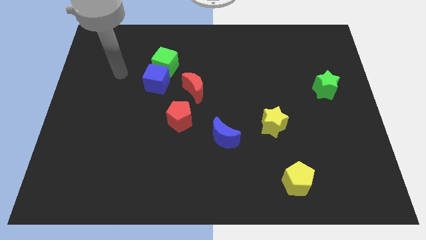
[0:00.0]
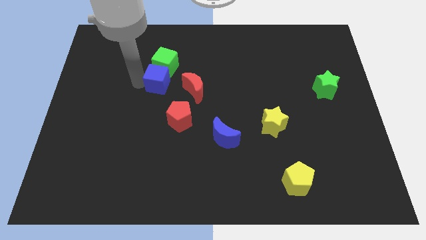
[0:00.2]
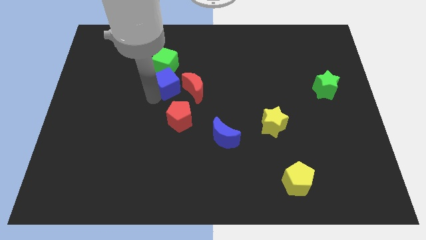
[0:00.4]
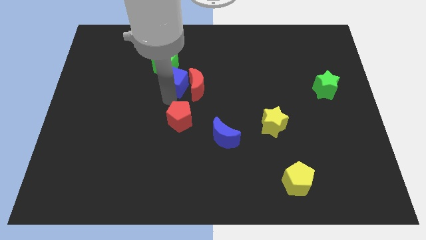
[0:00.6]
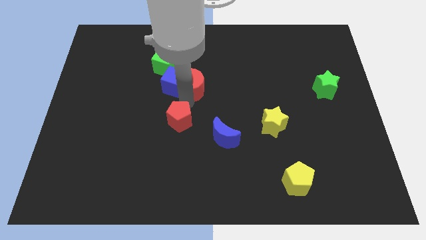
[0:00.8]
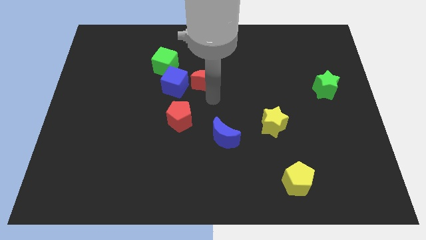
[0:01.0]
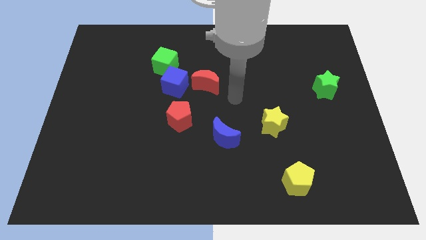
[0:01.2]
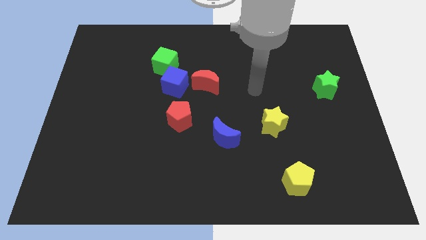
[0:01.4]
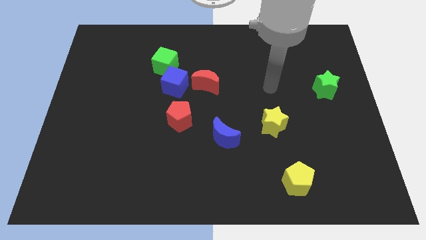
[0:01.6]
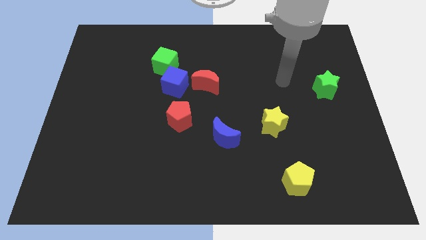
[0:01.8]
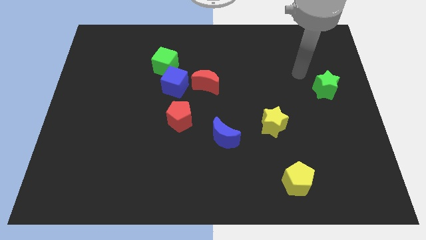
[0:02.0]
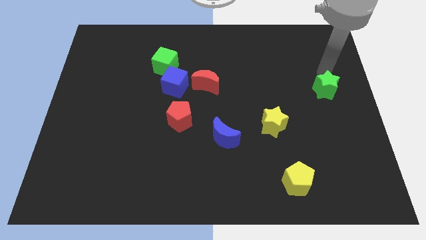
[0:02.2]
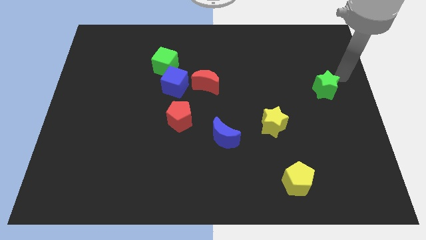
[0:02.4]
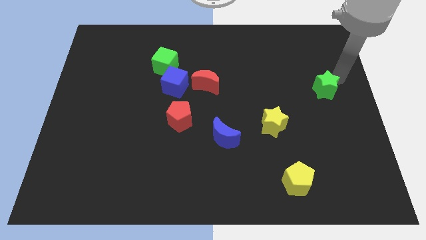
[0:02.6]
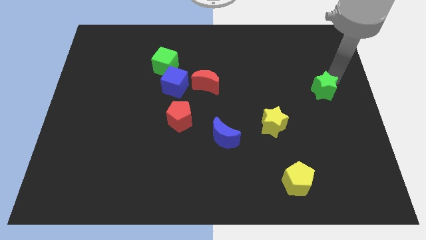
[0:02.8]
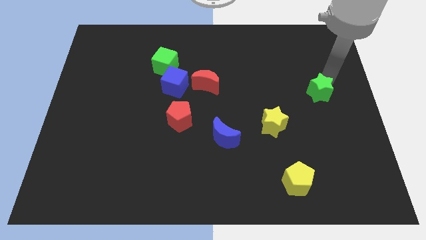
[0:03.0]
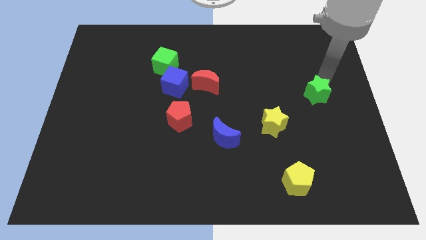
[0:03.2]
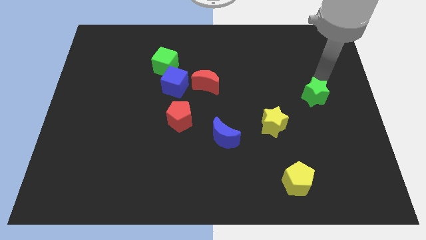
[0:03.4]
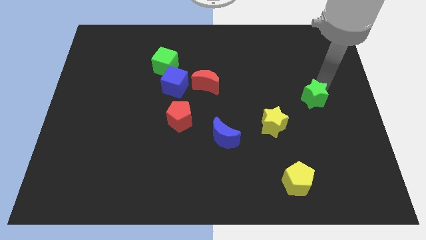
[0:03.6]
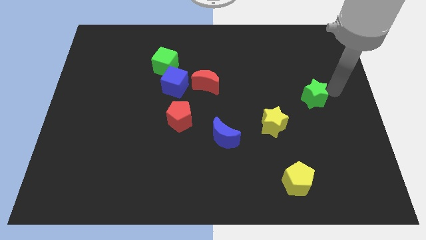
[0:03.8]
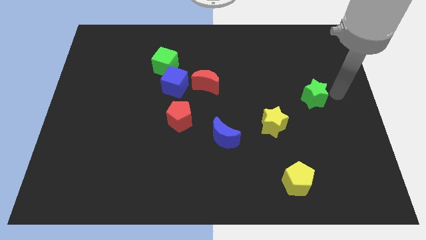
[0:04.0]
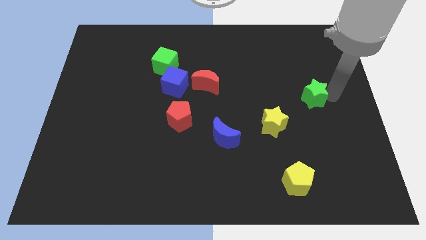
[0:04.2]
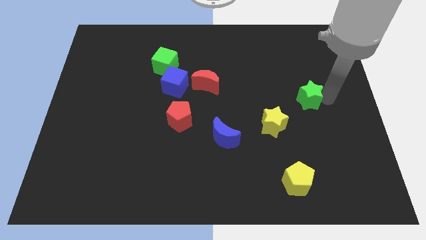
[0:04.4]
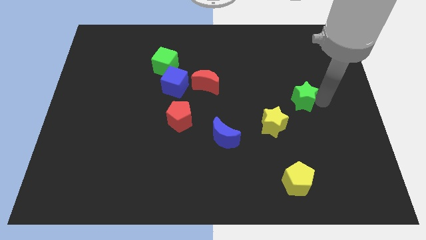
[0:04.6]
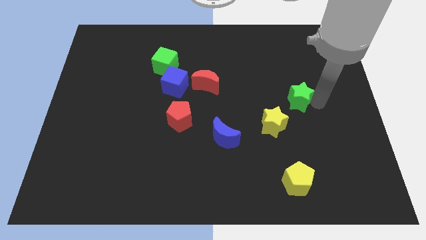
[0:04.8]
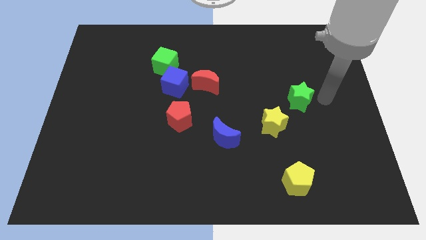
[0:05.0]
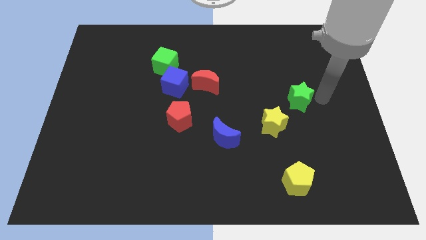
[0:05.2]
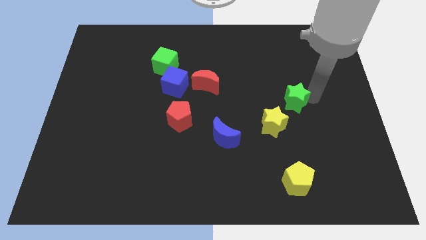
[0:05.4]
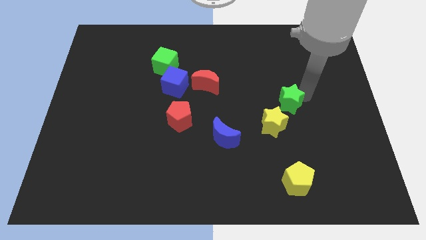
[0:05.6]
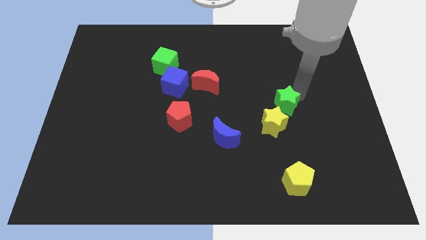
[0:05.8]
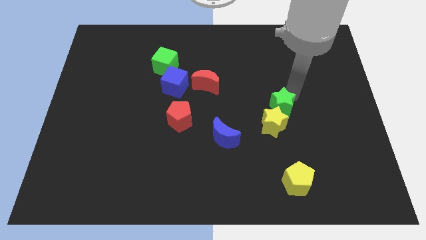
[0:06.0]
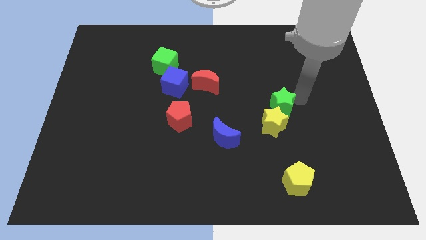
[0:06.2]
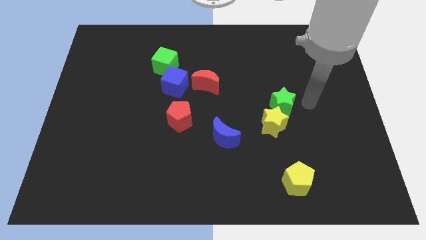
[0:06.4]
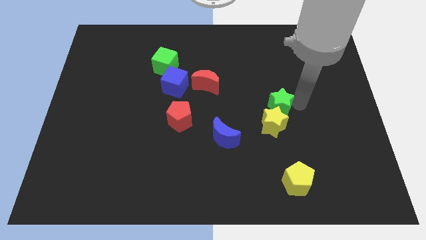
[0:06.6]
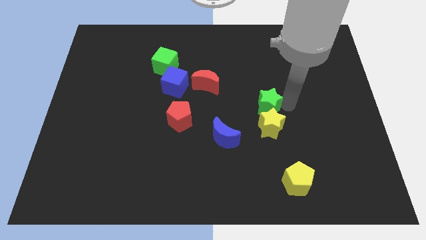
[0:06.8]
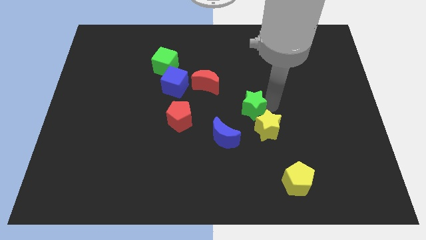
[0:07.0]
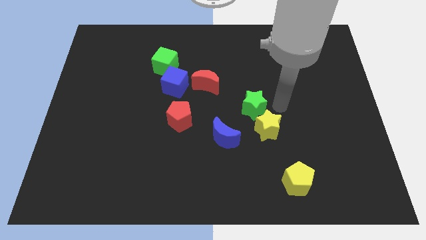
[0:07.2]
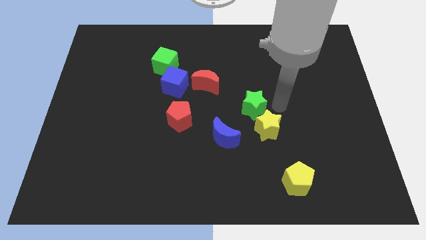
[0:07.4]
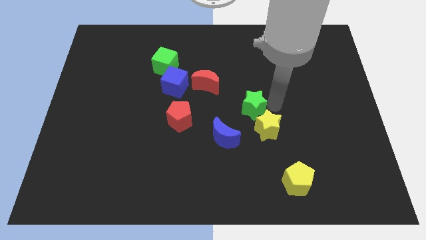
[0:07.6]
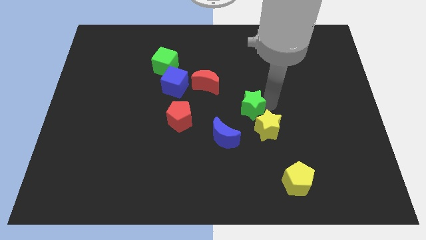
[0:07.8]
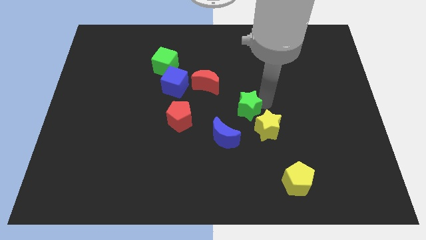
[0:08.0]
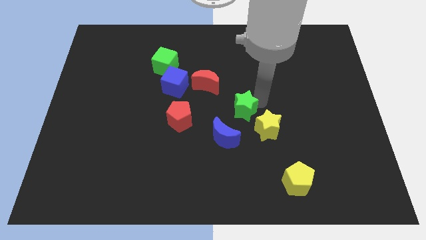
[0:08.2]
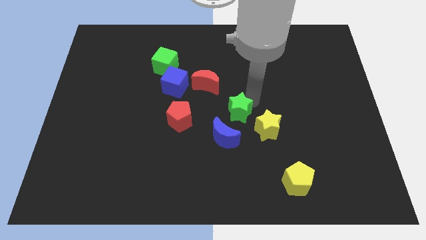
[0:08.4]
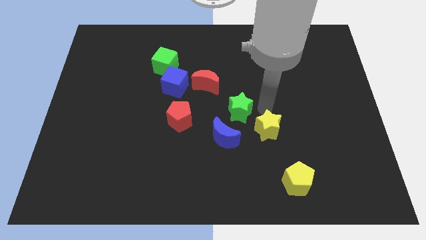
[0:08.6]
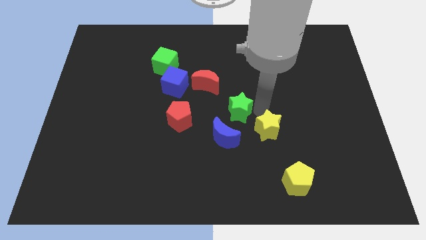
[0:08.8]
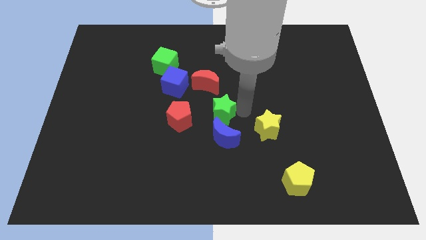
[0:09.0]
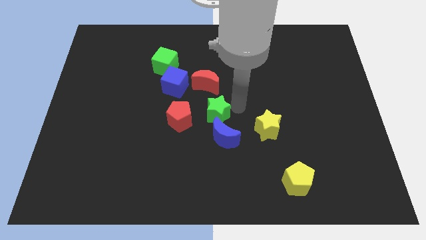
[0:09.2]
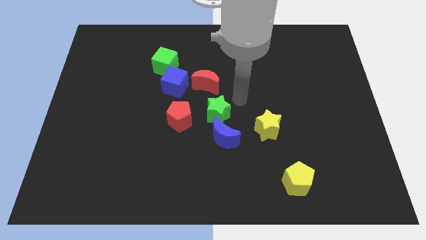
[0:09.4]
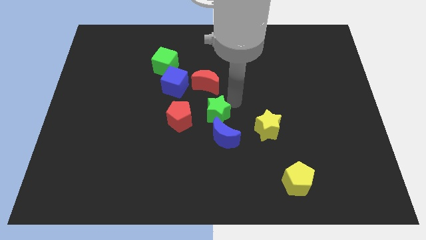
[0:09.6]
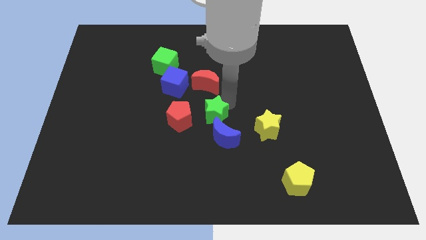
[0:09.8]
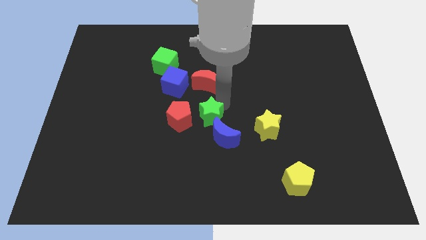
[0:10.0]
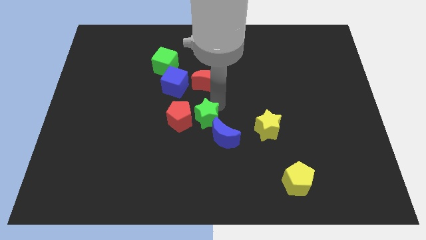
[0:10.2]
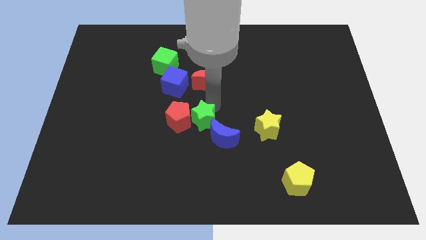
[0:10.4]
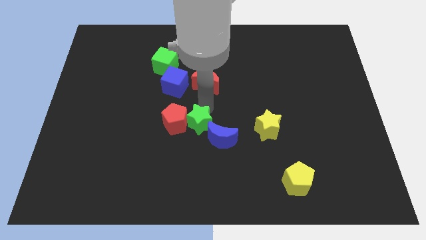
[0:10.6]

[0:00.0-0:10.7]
put the green star left of the blue moon

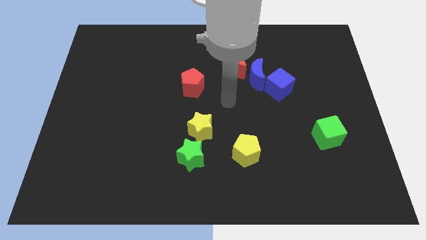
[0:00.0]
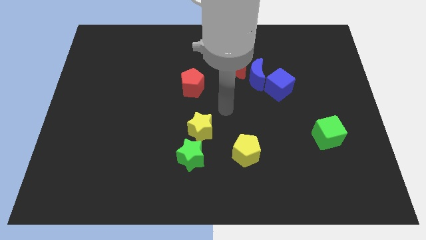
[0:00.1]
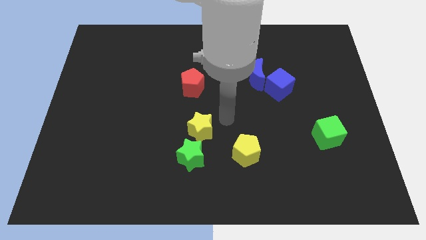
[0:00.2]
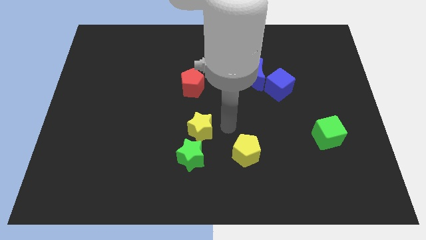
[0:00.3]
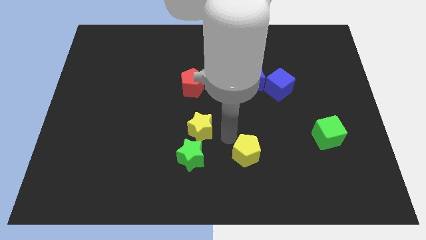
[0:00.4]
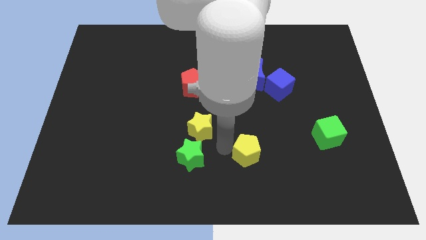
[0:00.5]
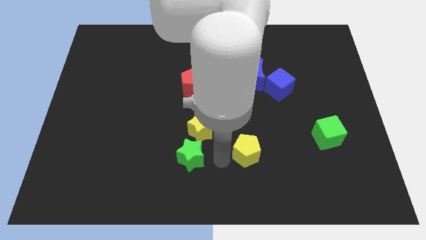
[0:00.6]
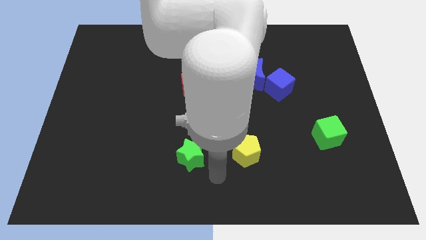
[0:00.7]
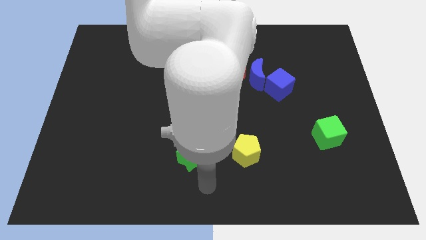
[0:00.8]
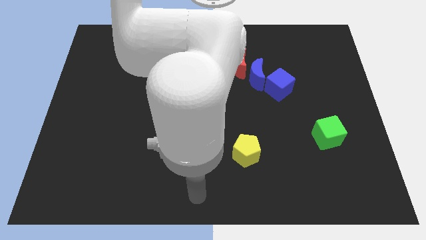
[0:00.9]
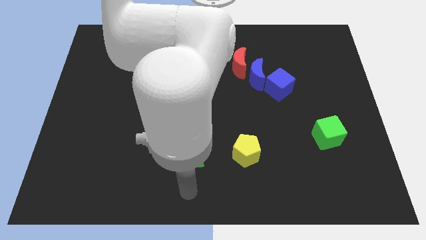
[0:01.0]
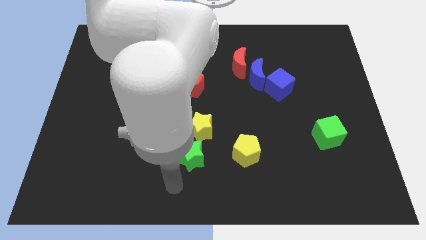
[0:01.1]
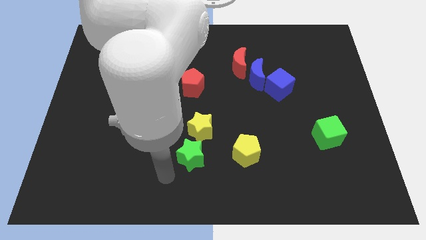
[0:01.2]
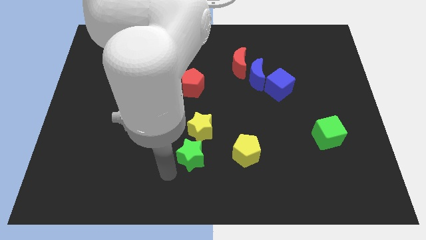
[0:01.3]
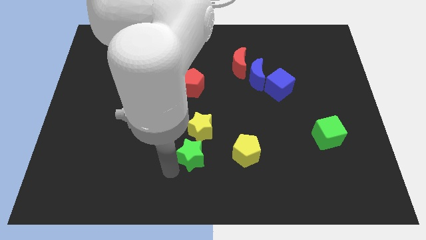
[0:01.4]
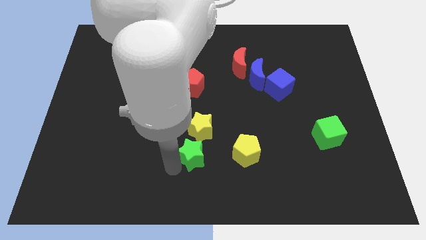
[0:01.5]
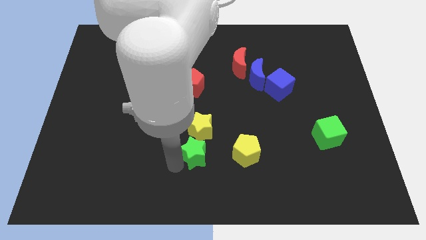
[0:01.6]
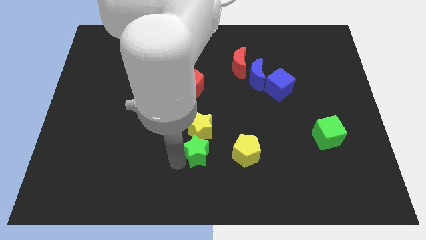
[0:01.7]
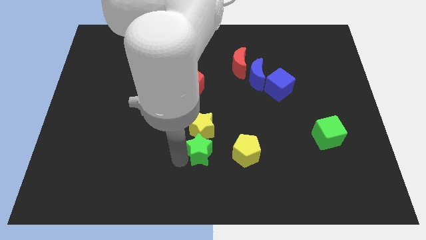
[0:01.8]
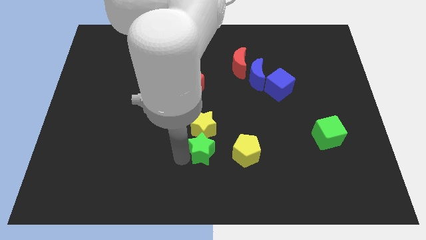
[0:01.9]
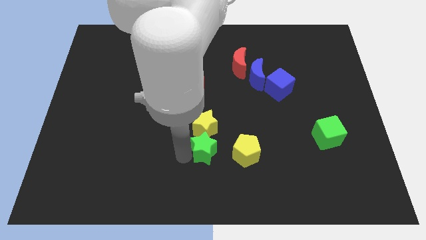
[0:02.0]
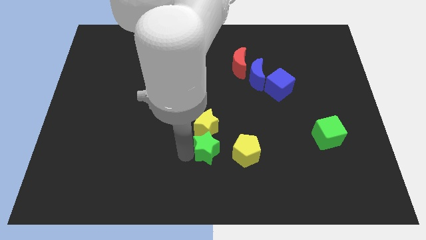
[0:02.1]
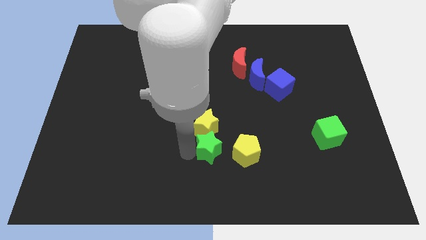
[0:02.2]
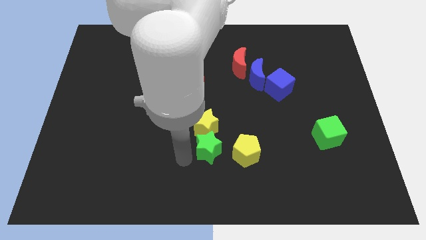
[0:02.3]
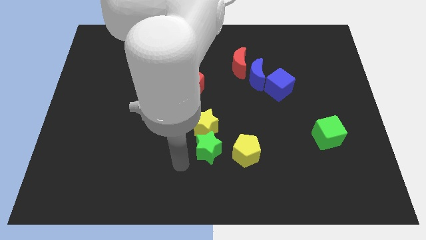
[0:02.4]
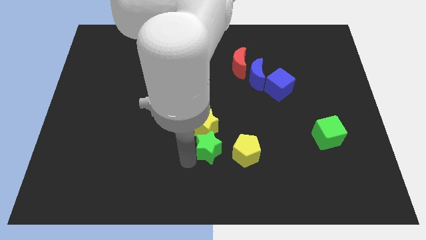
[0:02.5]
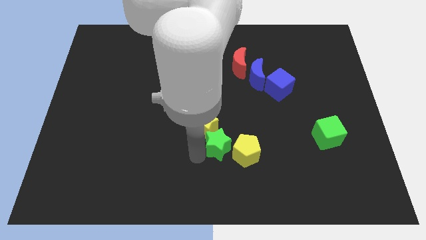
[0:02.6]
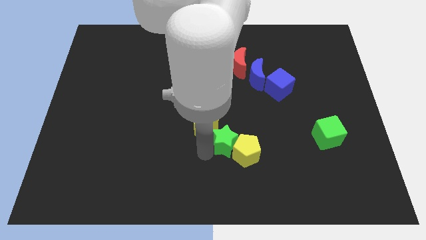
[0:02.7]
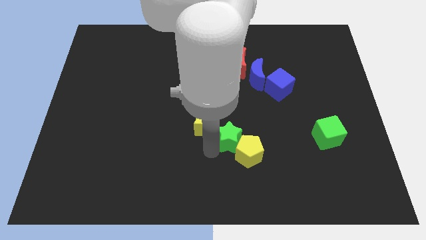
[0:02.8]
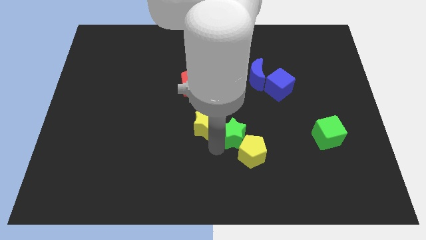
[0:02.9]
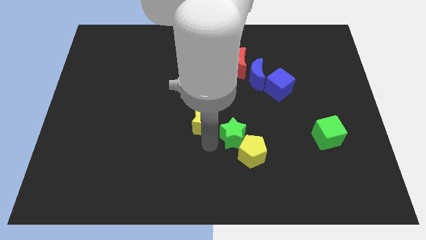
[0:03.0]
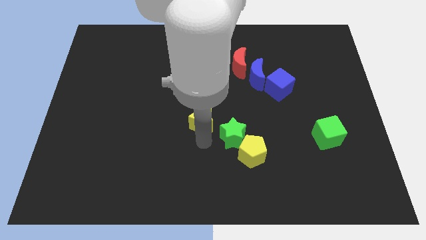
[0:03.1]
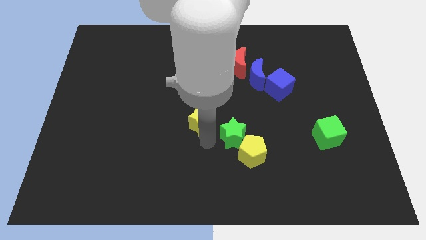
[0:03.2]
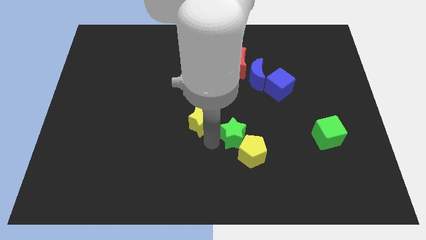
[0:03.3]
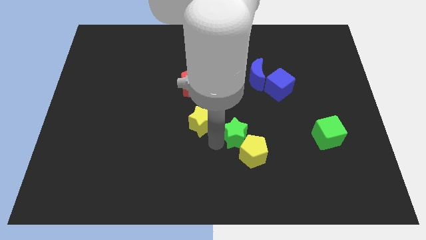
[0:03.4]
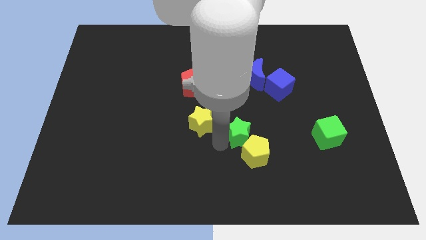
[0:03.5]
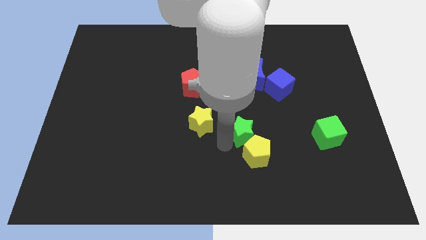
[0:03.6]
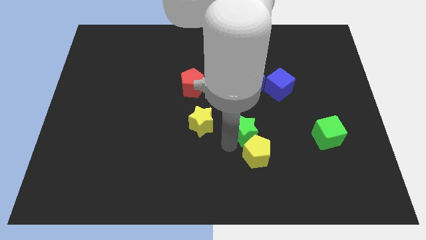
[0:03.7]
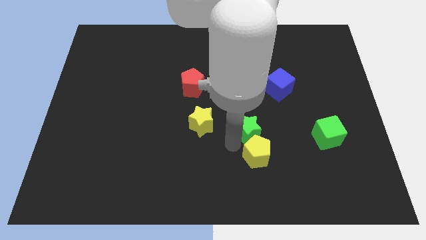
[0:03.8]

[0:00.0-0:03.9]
push the green star to the top right of the yellow pentagon
